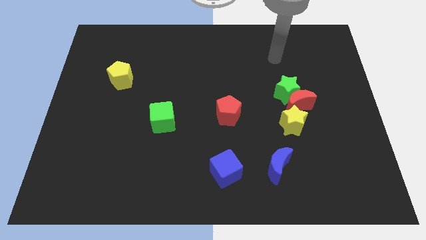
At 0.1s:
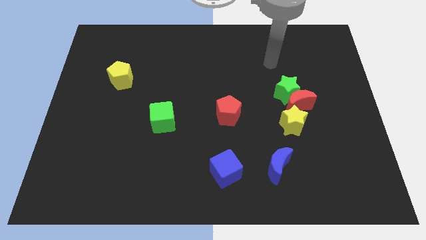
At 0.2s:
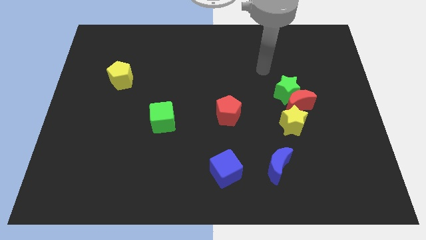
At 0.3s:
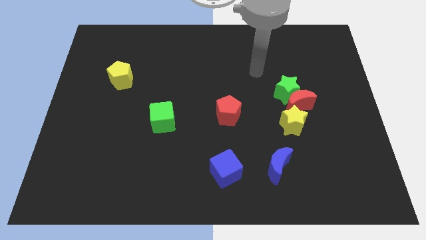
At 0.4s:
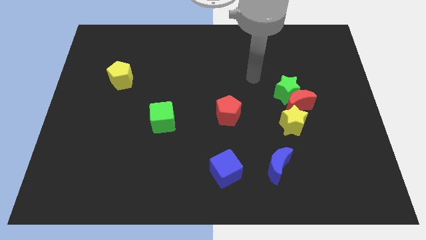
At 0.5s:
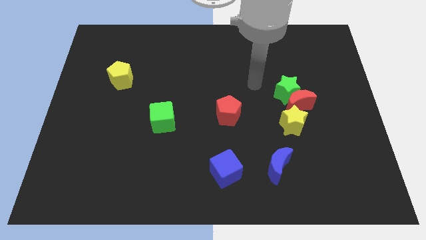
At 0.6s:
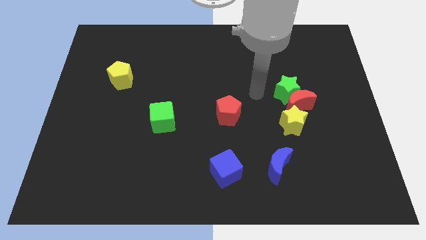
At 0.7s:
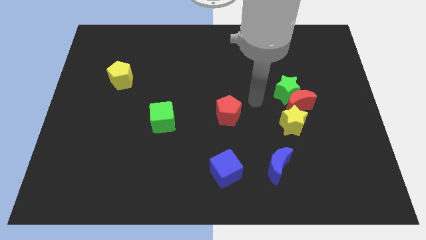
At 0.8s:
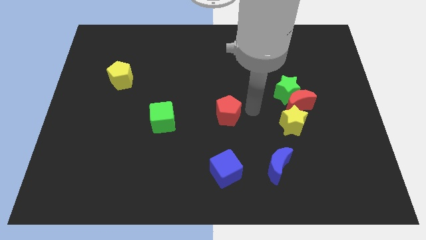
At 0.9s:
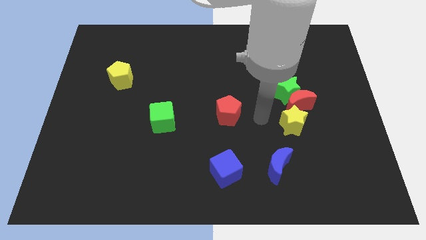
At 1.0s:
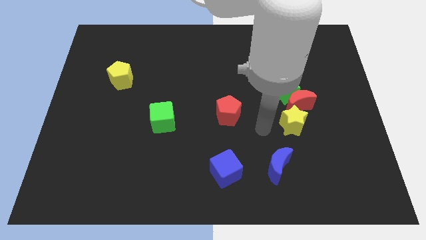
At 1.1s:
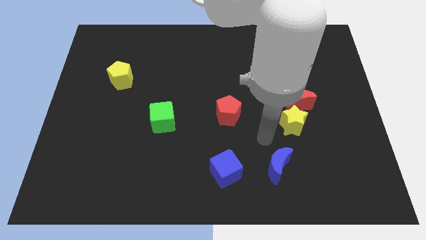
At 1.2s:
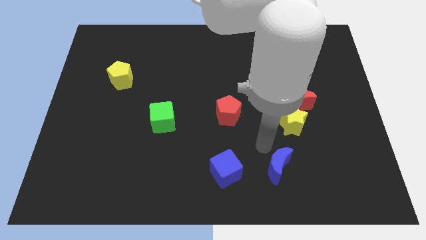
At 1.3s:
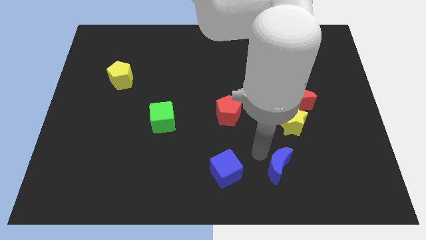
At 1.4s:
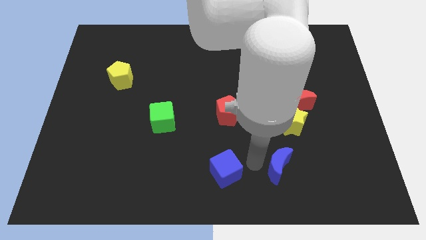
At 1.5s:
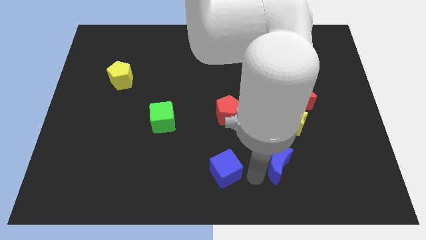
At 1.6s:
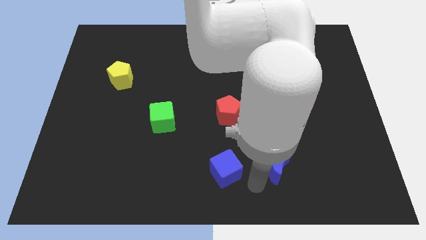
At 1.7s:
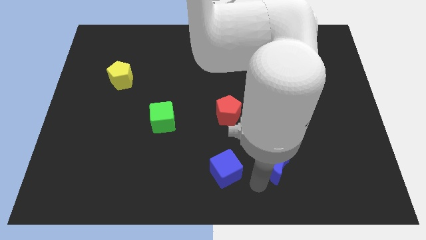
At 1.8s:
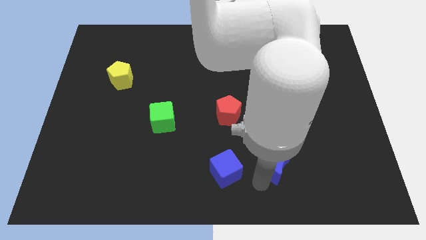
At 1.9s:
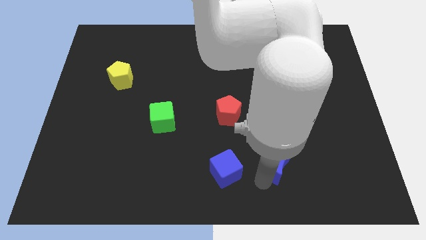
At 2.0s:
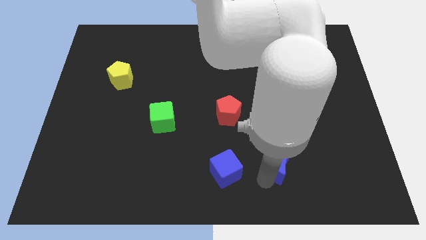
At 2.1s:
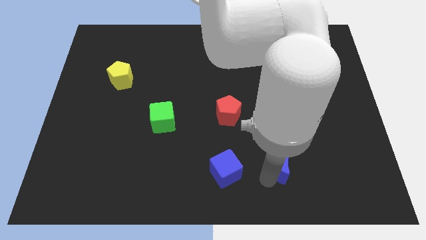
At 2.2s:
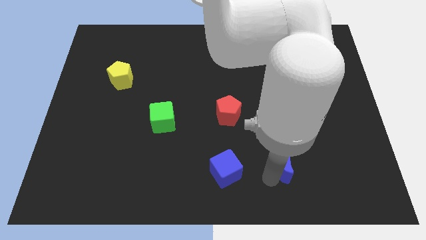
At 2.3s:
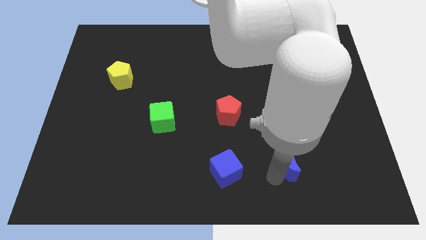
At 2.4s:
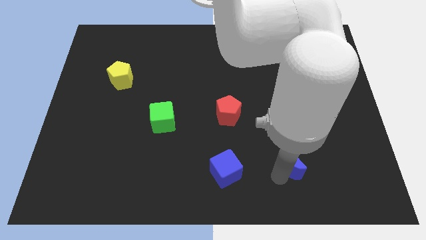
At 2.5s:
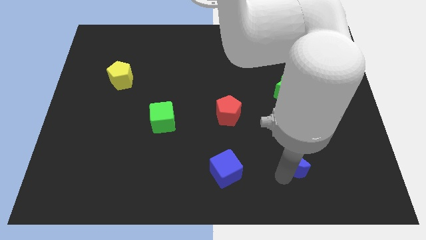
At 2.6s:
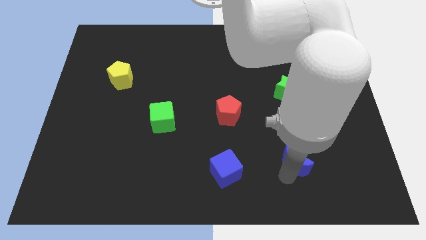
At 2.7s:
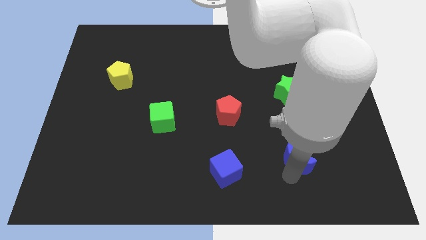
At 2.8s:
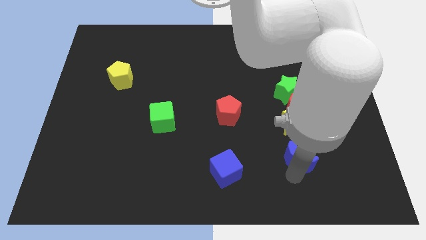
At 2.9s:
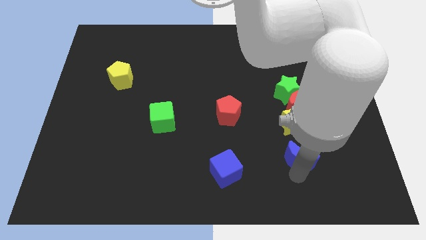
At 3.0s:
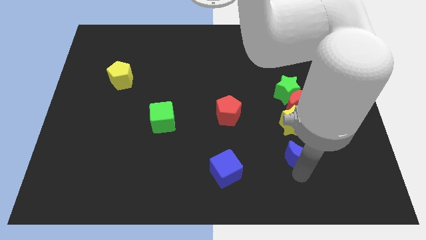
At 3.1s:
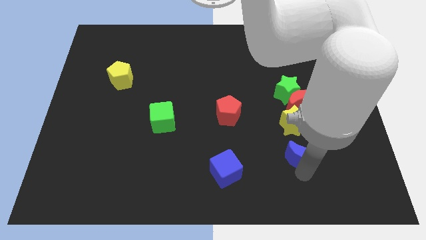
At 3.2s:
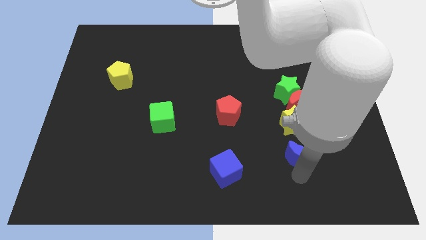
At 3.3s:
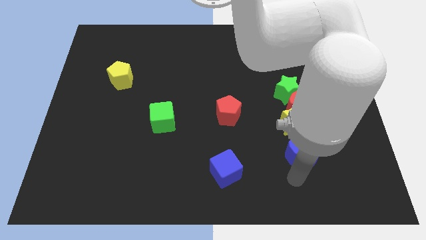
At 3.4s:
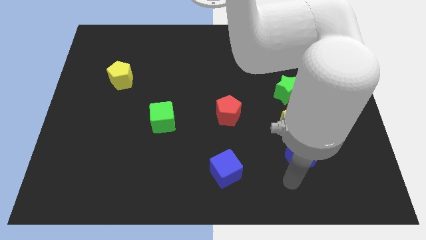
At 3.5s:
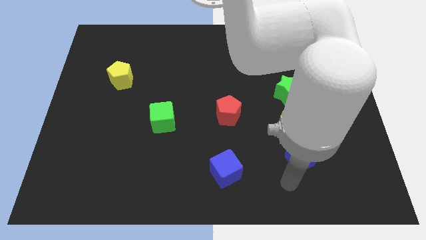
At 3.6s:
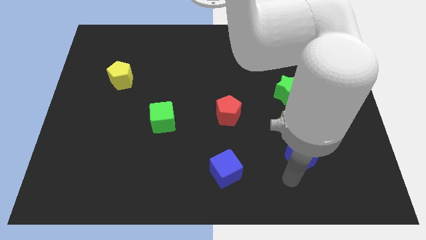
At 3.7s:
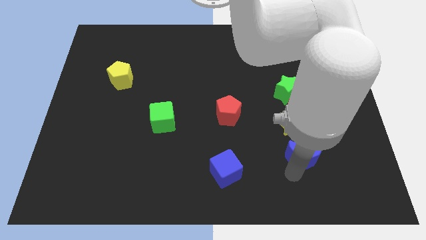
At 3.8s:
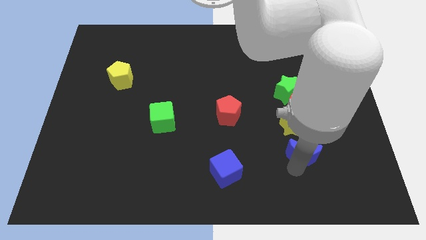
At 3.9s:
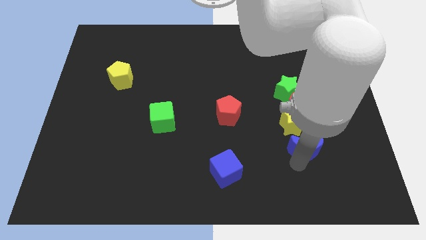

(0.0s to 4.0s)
slide the blue moon up and right diagonally a little bit

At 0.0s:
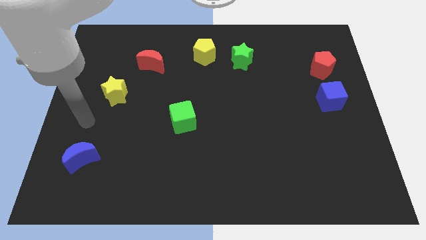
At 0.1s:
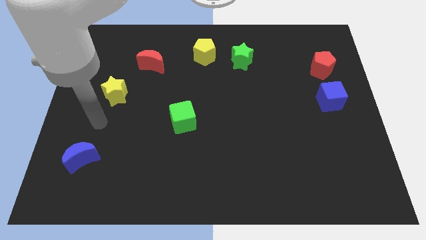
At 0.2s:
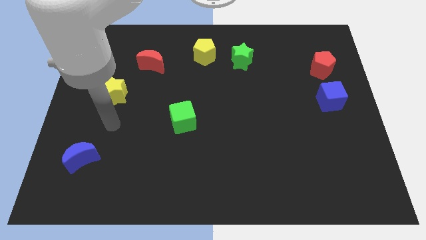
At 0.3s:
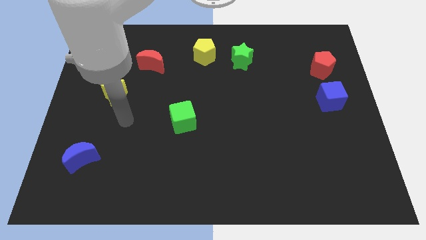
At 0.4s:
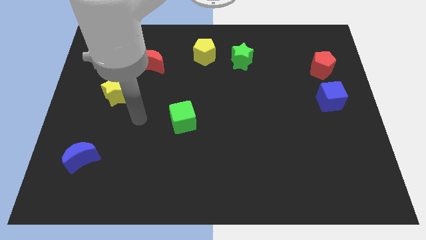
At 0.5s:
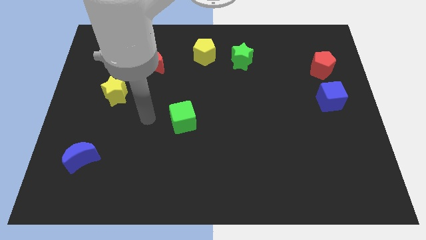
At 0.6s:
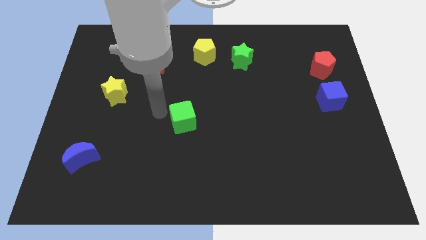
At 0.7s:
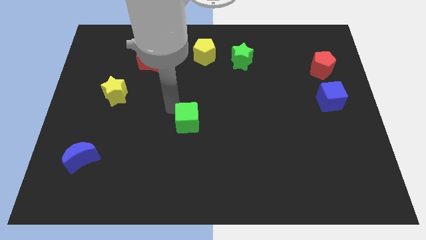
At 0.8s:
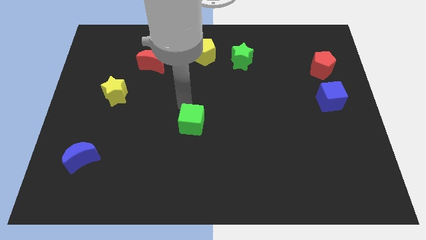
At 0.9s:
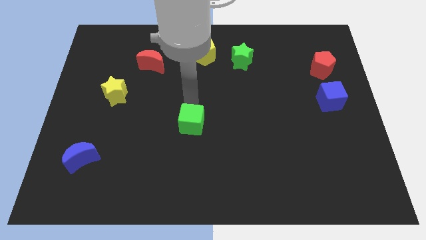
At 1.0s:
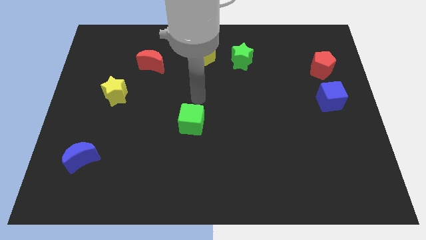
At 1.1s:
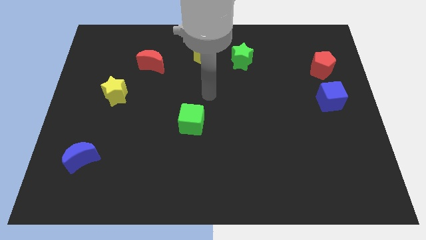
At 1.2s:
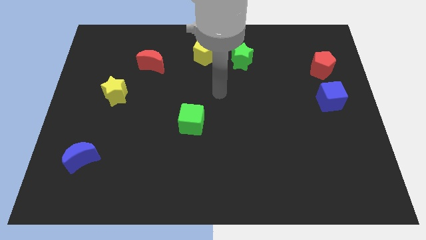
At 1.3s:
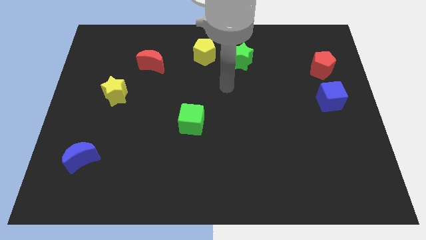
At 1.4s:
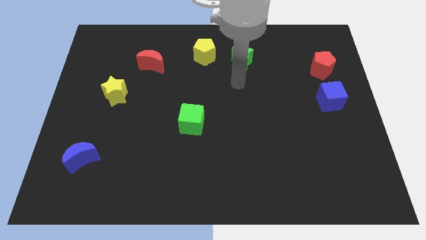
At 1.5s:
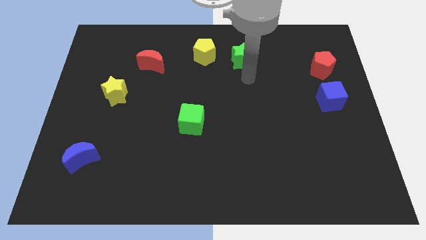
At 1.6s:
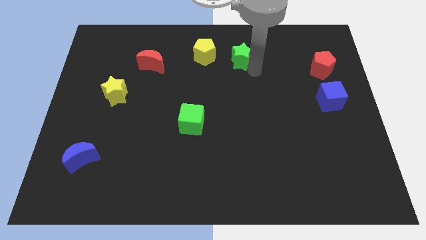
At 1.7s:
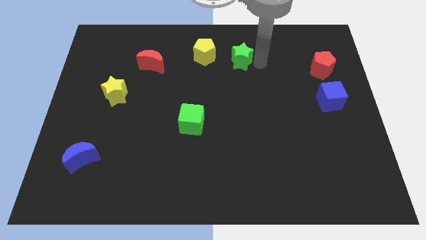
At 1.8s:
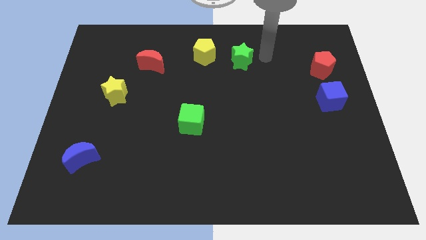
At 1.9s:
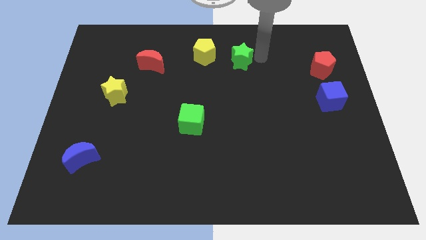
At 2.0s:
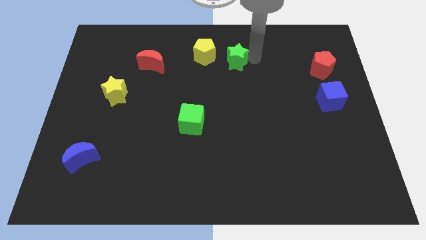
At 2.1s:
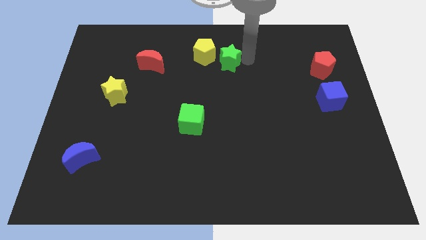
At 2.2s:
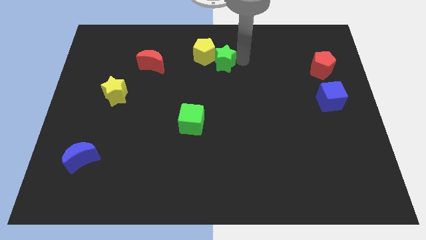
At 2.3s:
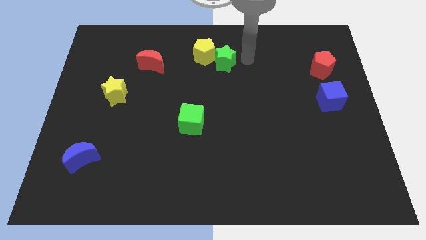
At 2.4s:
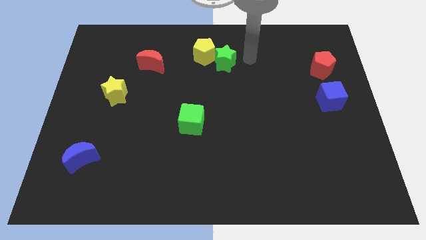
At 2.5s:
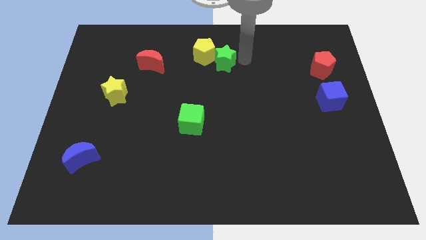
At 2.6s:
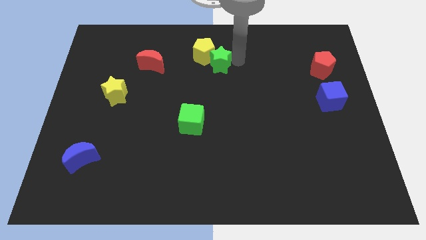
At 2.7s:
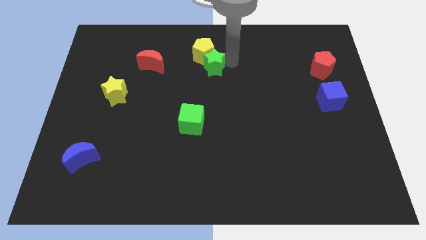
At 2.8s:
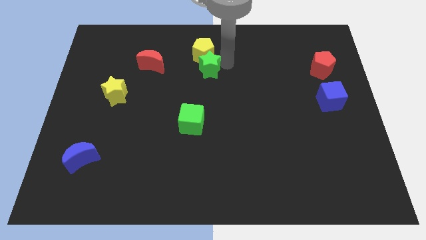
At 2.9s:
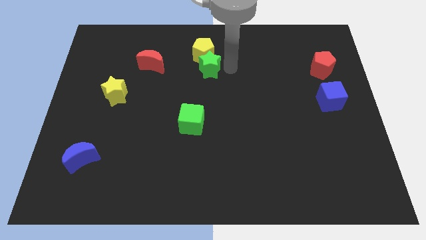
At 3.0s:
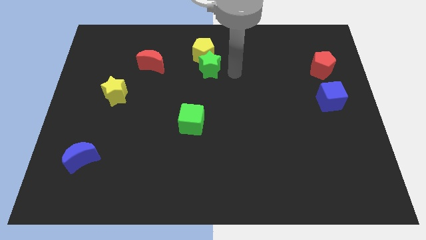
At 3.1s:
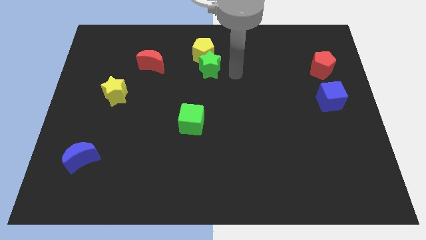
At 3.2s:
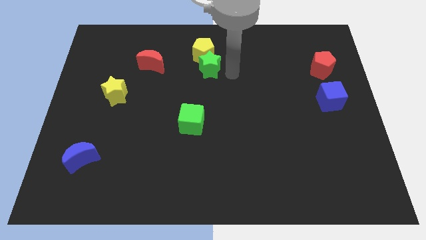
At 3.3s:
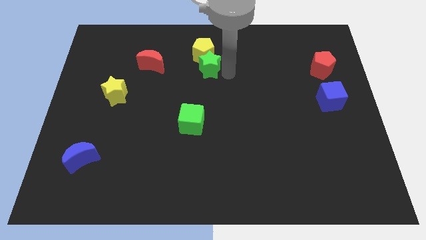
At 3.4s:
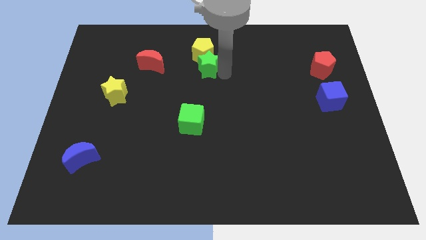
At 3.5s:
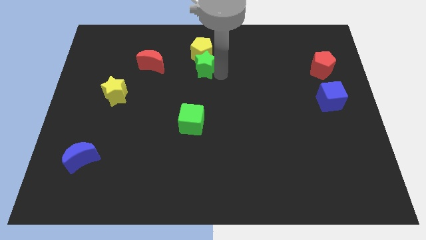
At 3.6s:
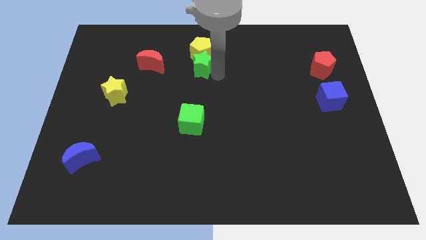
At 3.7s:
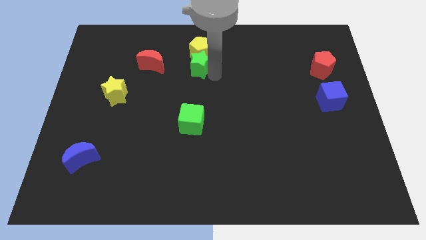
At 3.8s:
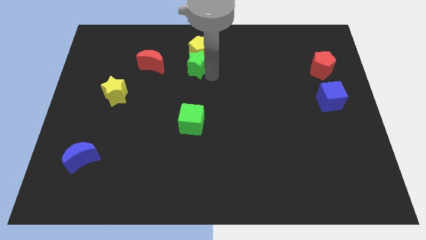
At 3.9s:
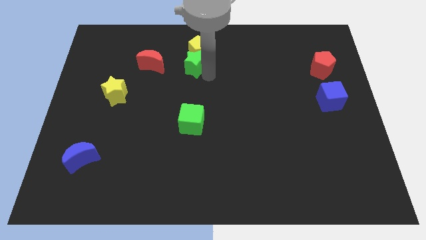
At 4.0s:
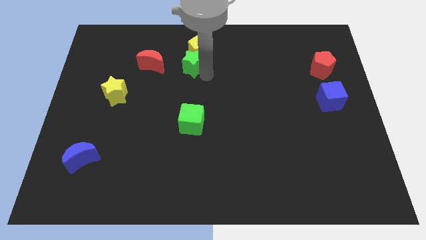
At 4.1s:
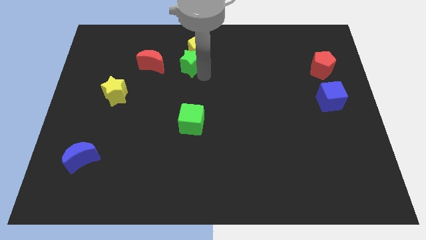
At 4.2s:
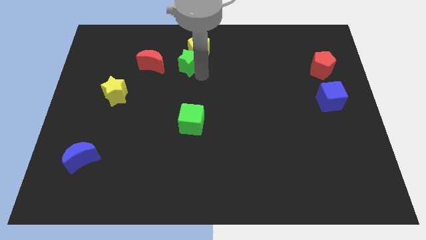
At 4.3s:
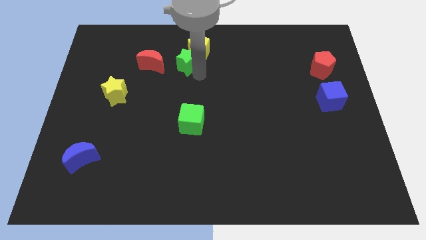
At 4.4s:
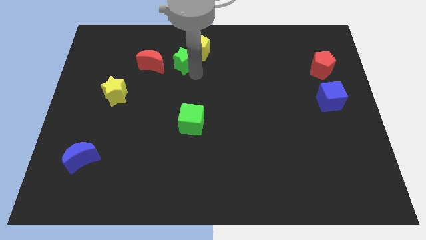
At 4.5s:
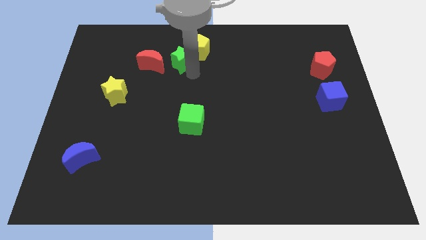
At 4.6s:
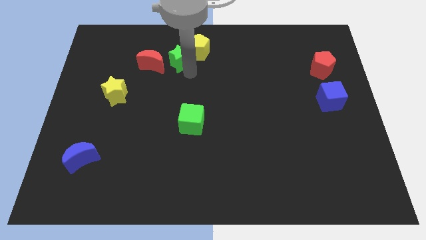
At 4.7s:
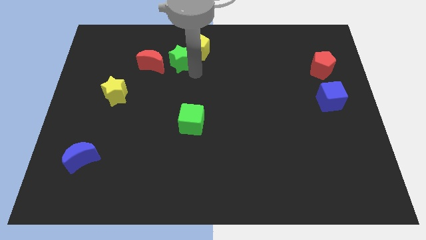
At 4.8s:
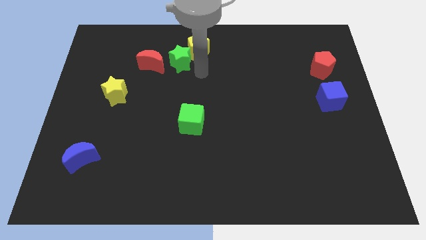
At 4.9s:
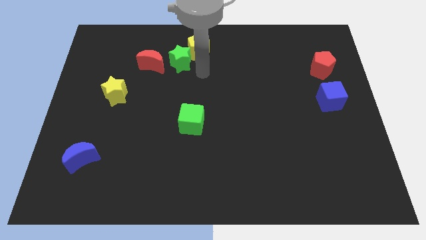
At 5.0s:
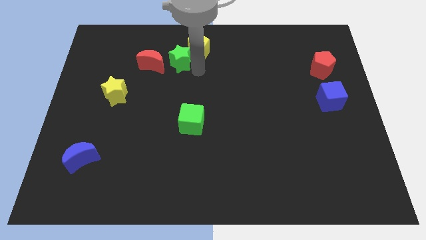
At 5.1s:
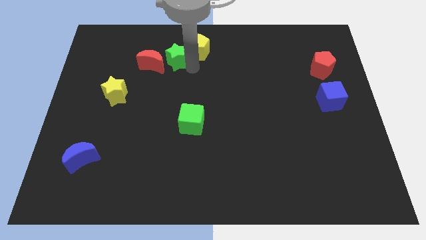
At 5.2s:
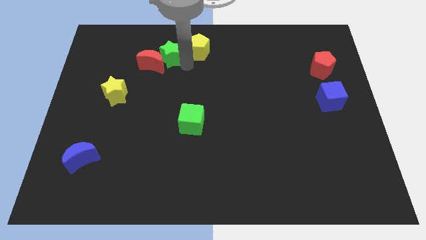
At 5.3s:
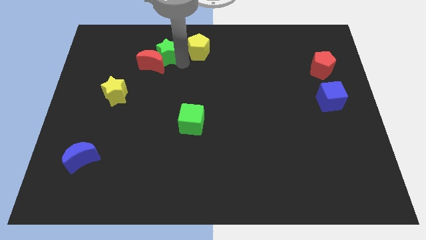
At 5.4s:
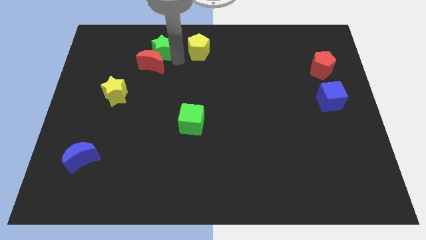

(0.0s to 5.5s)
move the green star to the left
